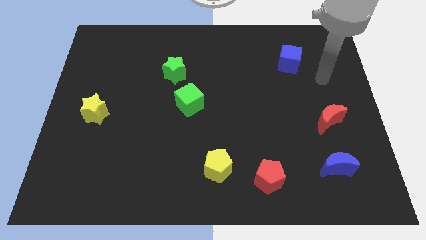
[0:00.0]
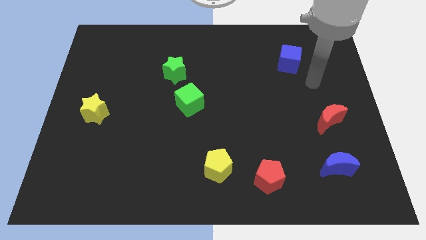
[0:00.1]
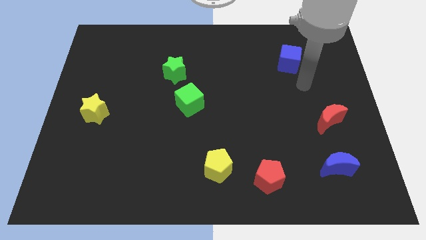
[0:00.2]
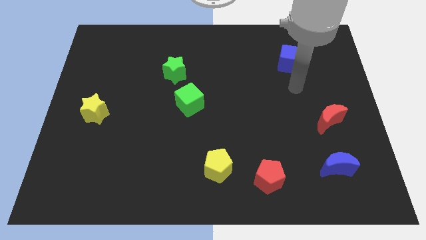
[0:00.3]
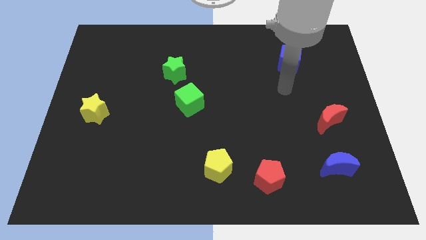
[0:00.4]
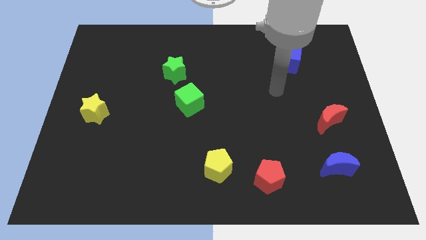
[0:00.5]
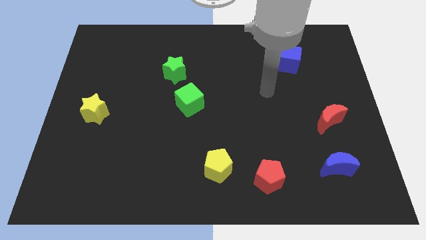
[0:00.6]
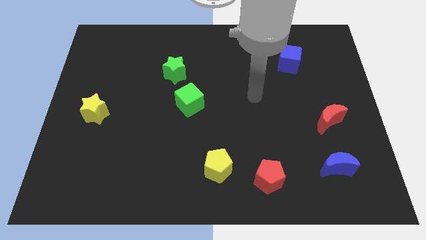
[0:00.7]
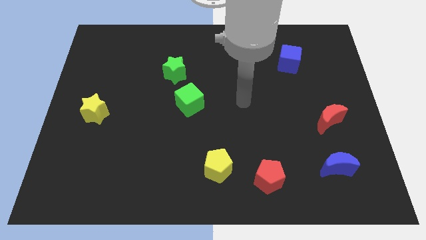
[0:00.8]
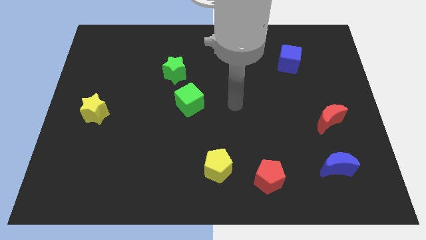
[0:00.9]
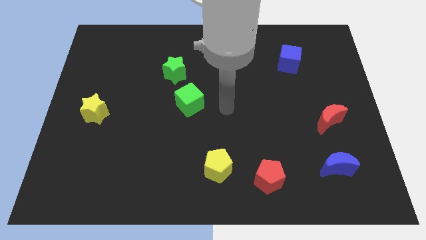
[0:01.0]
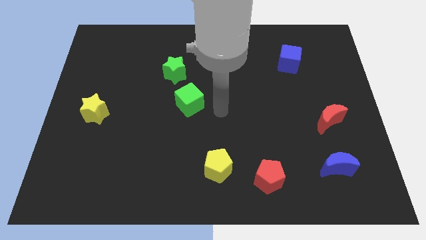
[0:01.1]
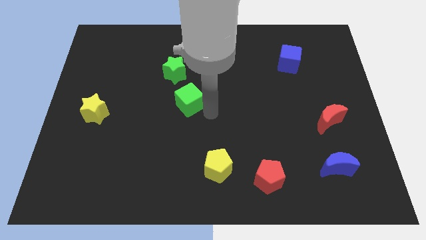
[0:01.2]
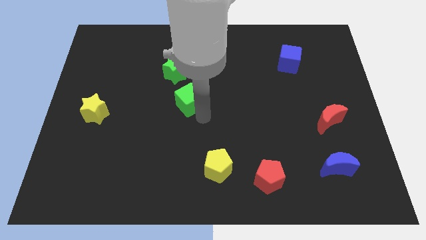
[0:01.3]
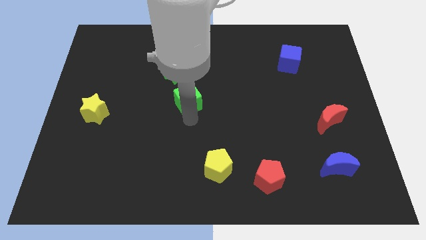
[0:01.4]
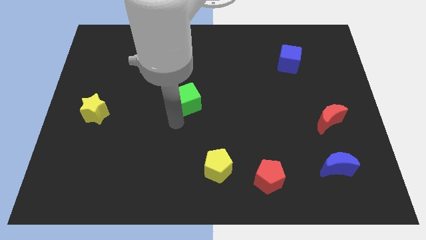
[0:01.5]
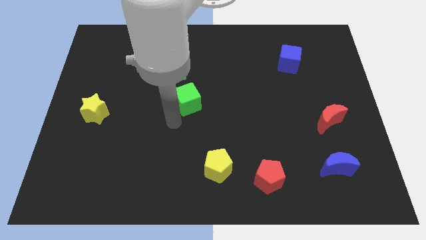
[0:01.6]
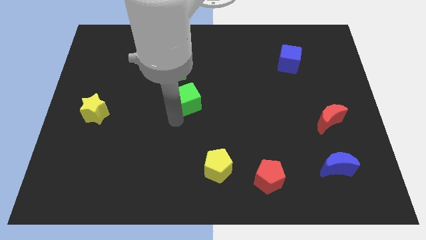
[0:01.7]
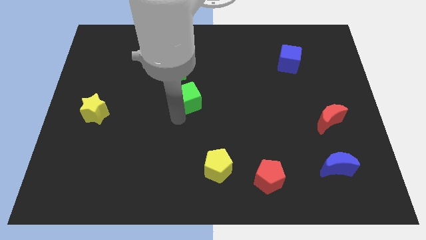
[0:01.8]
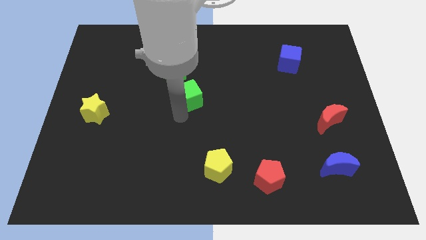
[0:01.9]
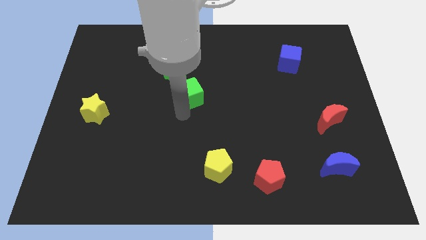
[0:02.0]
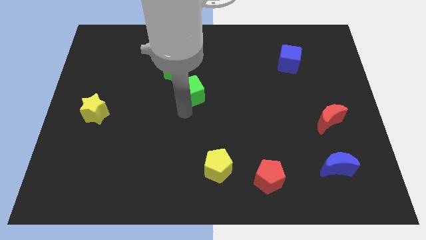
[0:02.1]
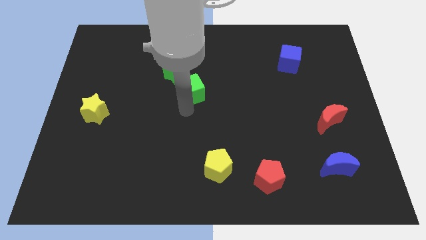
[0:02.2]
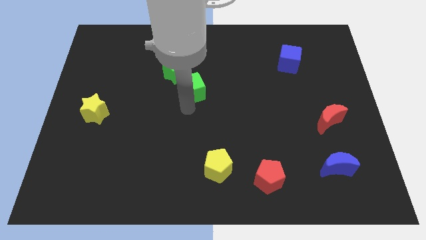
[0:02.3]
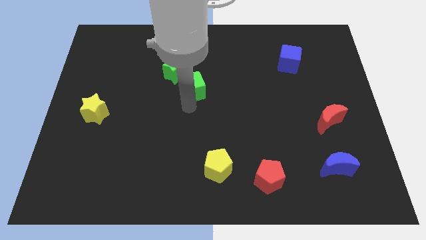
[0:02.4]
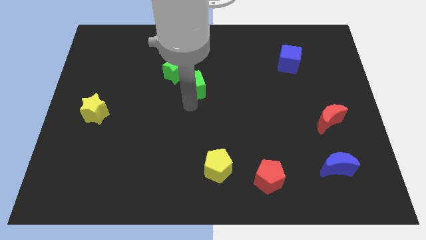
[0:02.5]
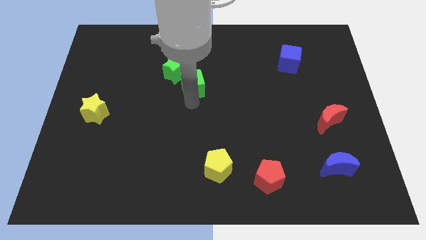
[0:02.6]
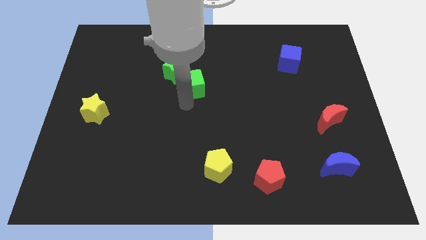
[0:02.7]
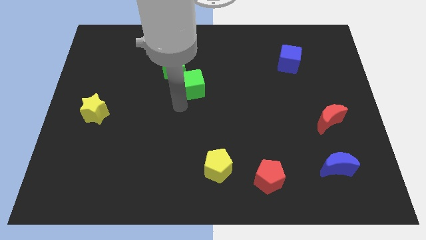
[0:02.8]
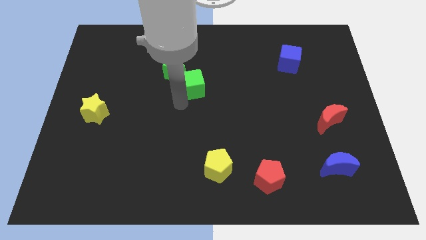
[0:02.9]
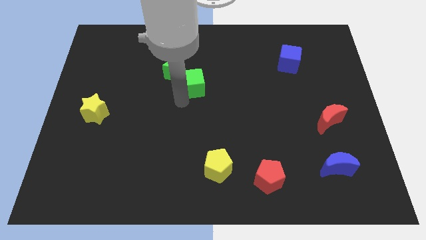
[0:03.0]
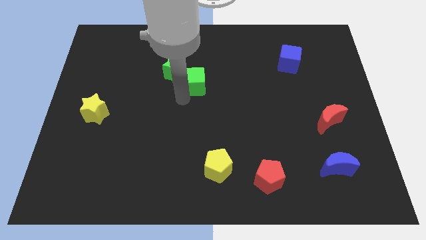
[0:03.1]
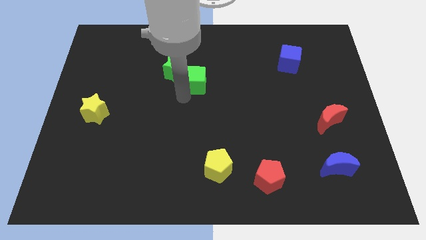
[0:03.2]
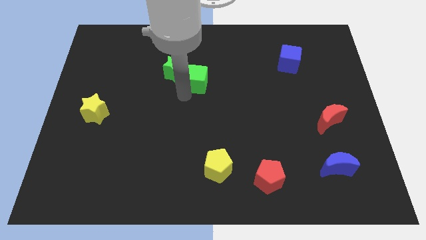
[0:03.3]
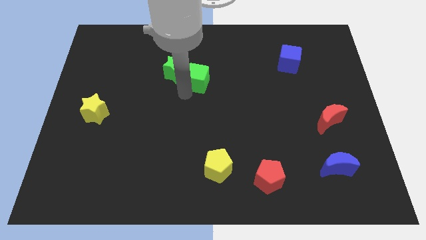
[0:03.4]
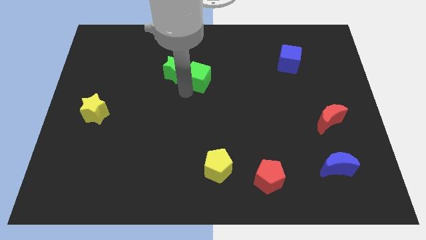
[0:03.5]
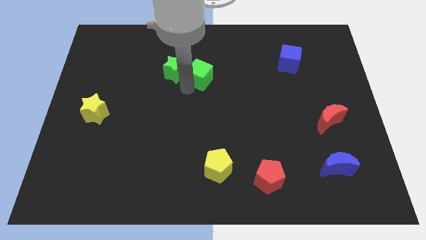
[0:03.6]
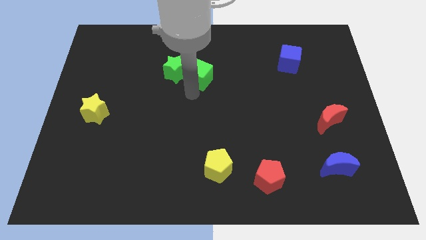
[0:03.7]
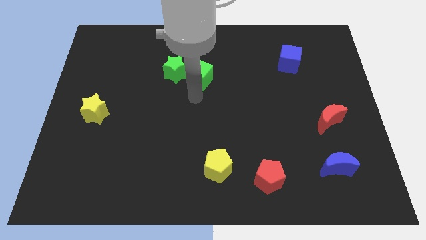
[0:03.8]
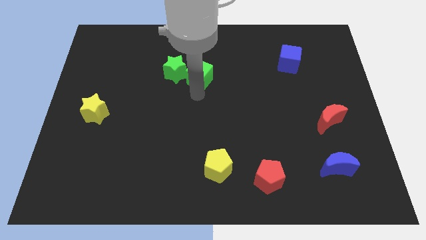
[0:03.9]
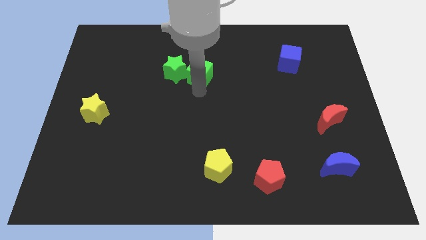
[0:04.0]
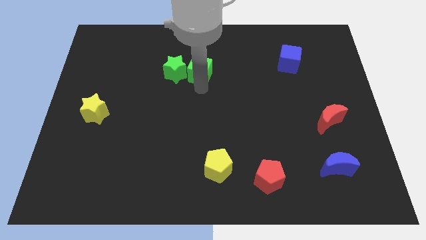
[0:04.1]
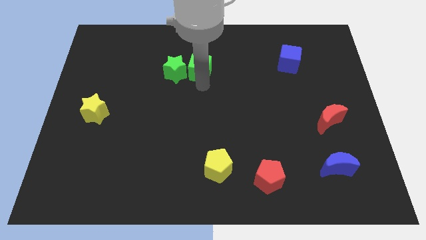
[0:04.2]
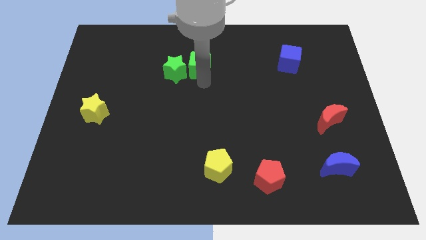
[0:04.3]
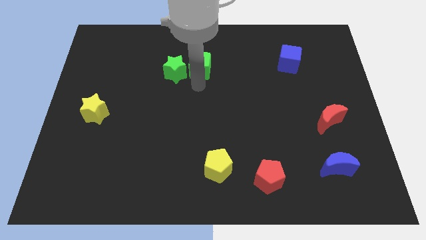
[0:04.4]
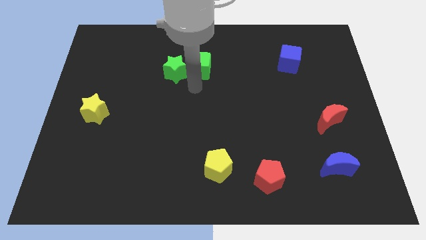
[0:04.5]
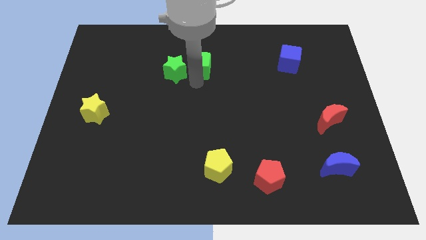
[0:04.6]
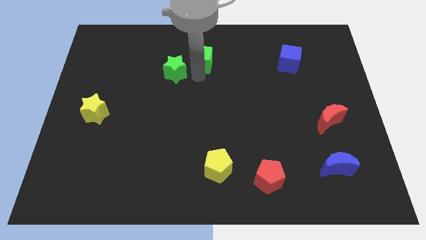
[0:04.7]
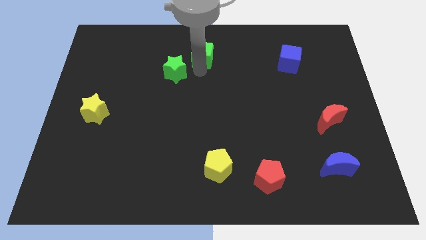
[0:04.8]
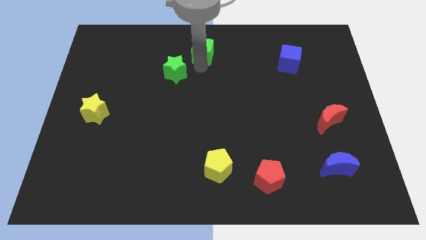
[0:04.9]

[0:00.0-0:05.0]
slide the green cube to the top side

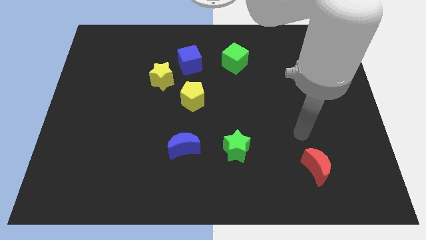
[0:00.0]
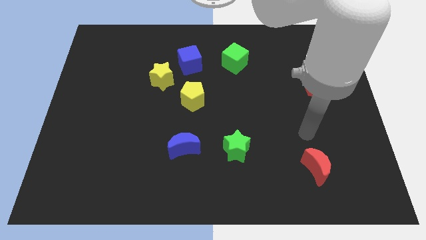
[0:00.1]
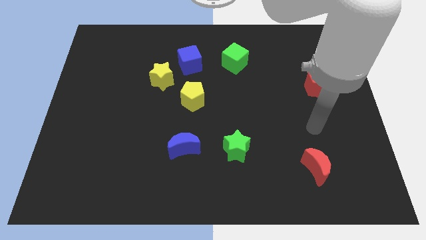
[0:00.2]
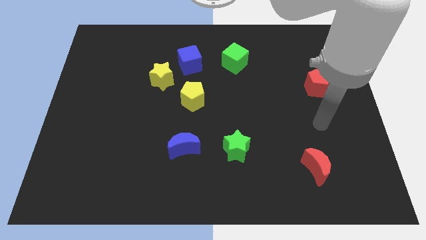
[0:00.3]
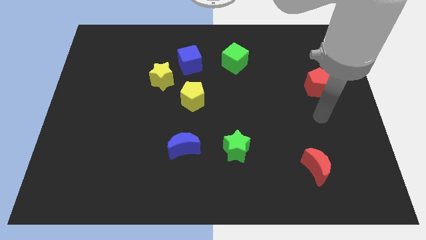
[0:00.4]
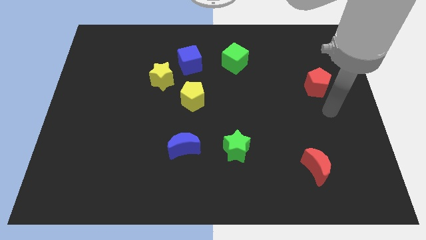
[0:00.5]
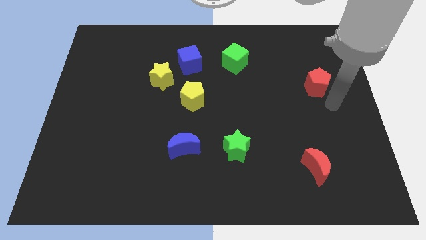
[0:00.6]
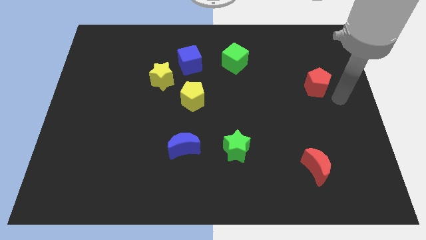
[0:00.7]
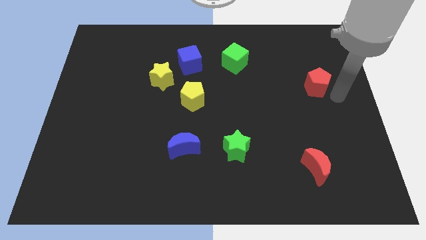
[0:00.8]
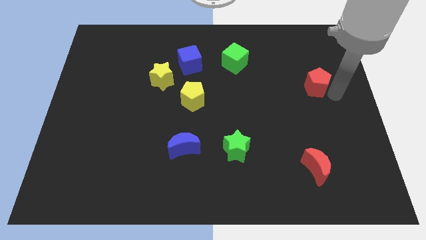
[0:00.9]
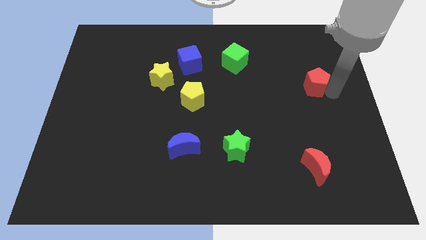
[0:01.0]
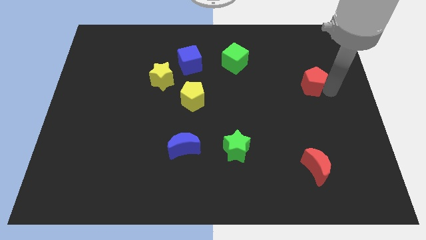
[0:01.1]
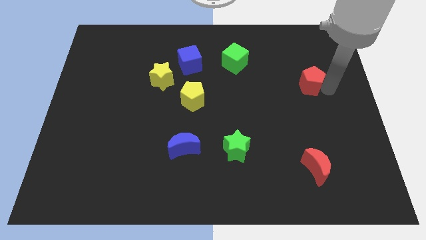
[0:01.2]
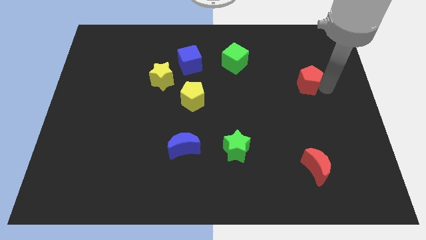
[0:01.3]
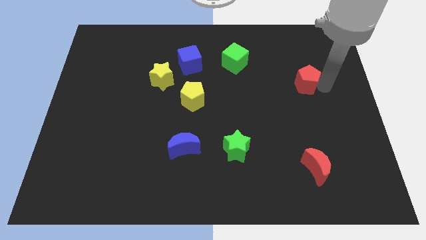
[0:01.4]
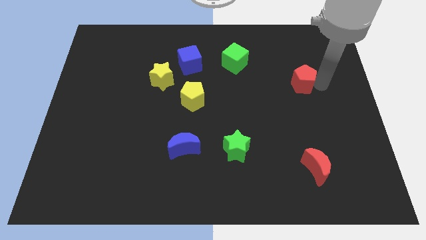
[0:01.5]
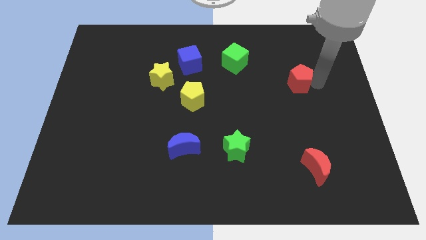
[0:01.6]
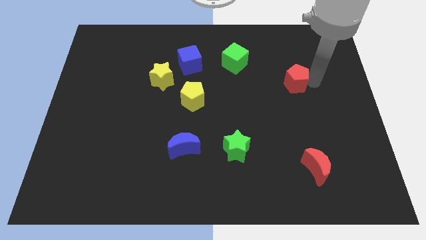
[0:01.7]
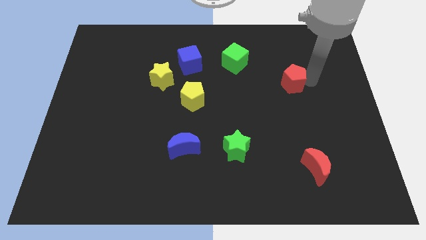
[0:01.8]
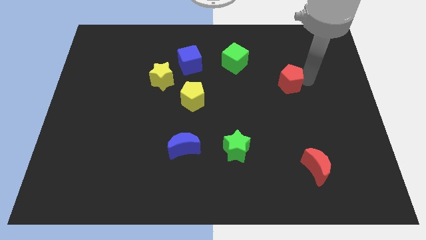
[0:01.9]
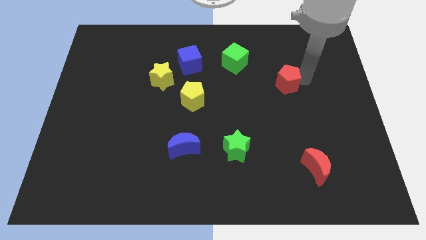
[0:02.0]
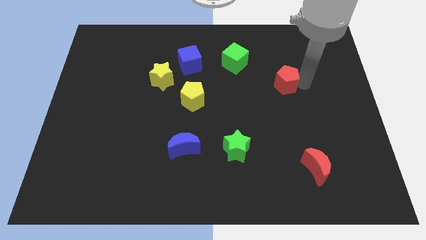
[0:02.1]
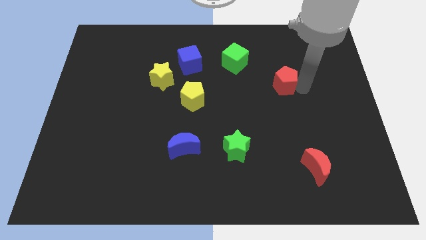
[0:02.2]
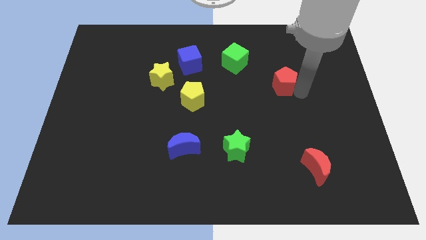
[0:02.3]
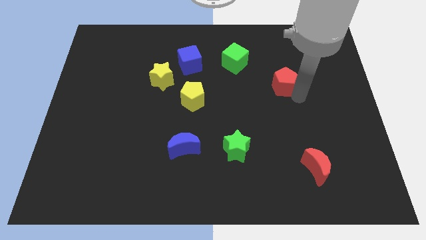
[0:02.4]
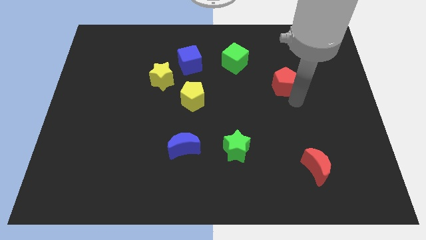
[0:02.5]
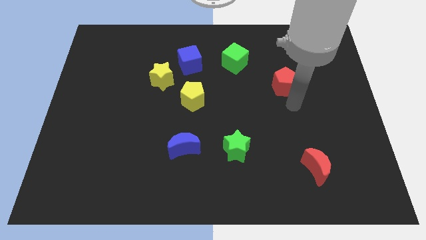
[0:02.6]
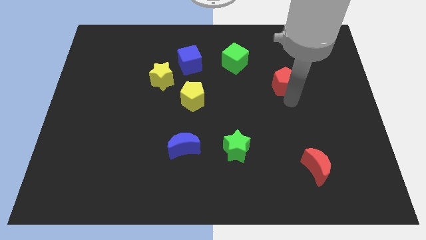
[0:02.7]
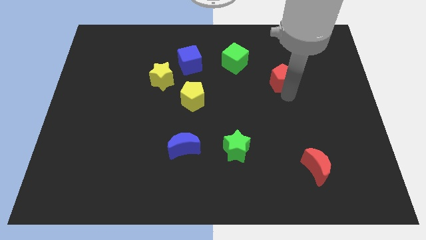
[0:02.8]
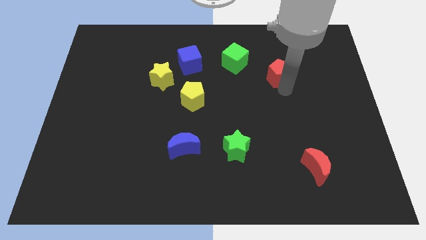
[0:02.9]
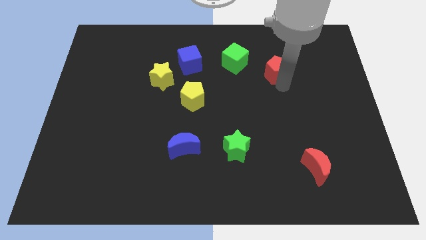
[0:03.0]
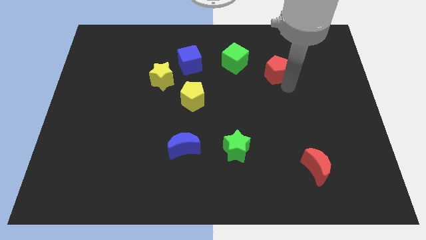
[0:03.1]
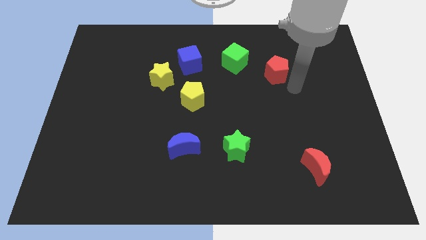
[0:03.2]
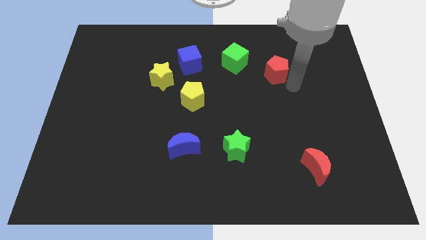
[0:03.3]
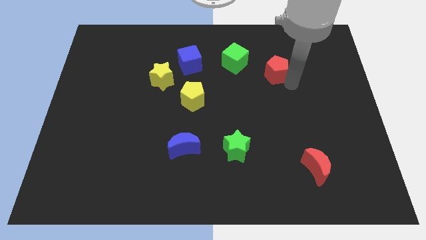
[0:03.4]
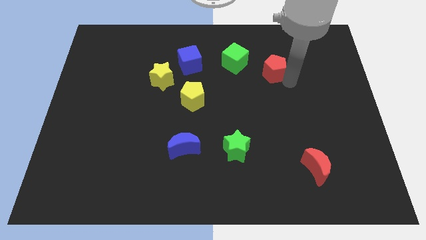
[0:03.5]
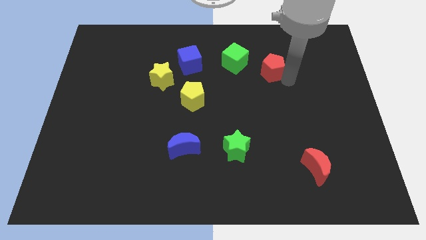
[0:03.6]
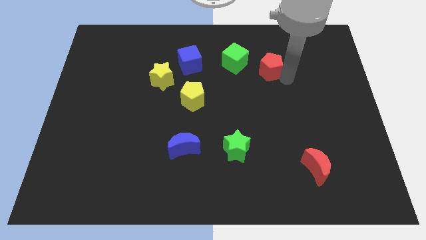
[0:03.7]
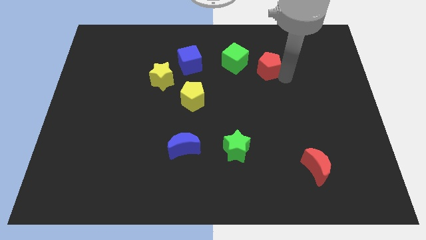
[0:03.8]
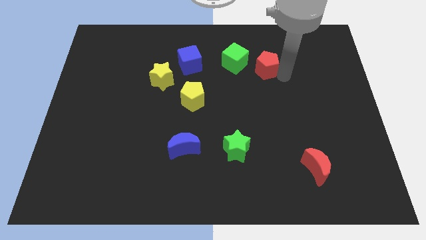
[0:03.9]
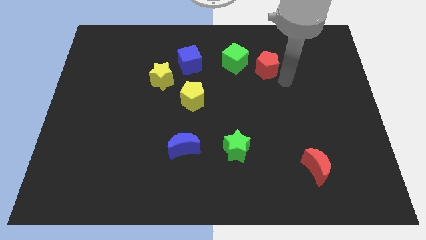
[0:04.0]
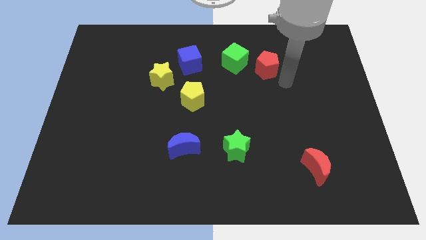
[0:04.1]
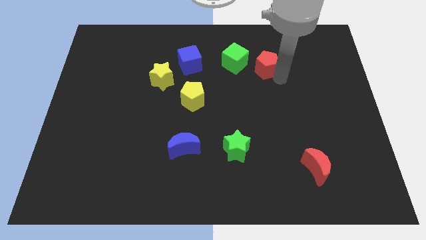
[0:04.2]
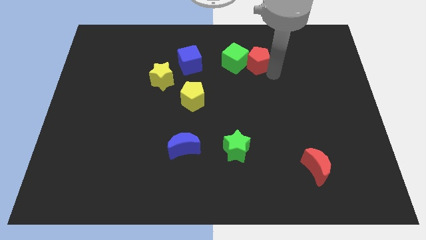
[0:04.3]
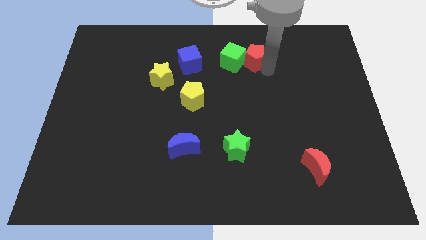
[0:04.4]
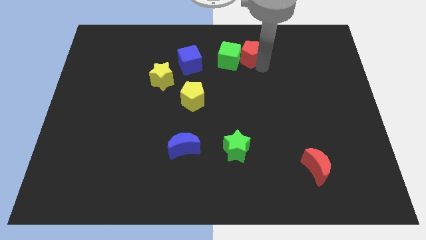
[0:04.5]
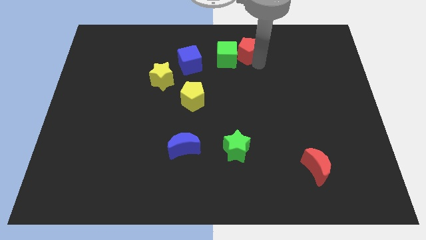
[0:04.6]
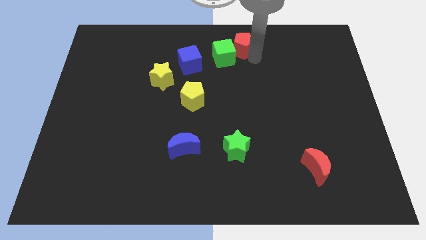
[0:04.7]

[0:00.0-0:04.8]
move the red pentagon to the top side
